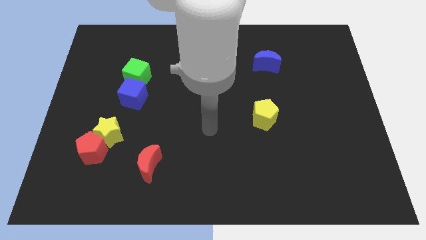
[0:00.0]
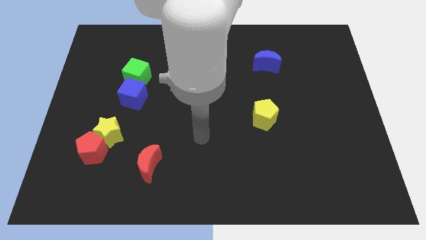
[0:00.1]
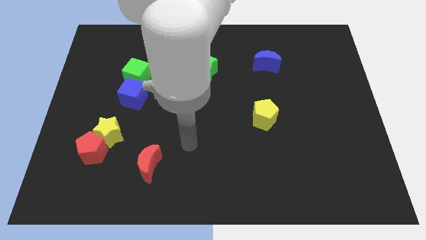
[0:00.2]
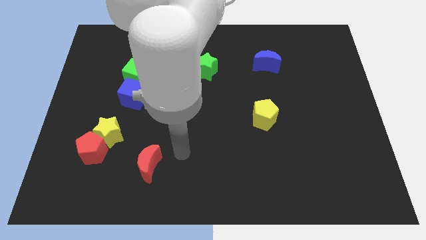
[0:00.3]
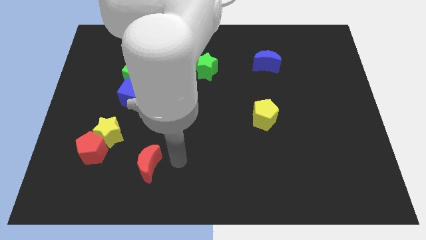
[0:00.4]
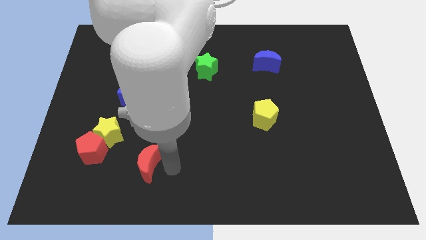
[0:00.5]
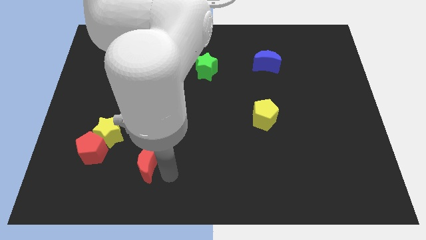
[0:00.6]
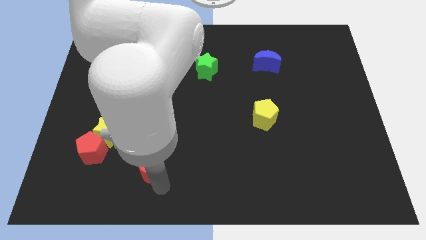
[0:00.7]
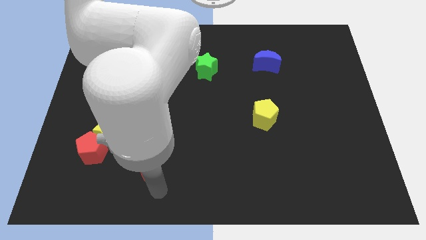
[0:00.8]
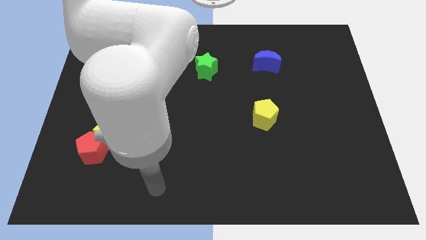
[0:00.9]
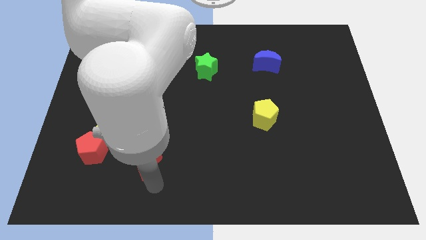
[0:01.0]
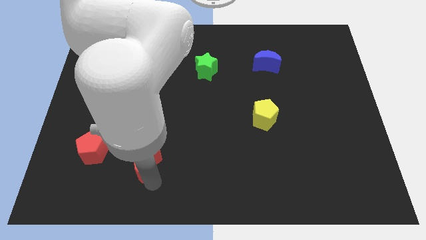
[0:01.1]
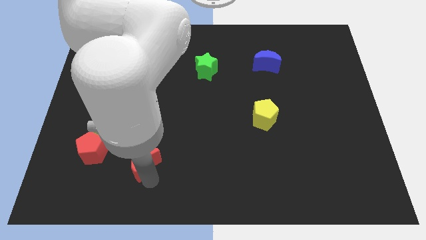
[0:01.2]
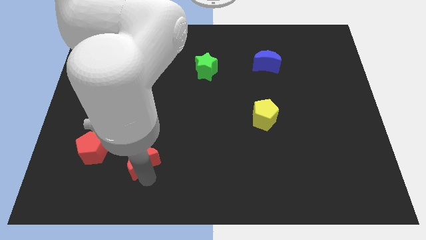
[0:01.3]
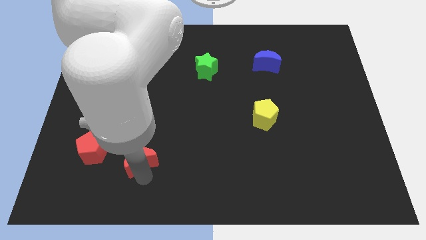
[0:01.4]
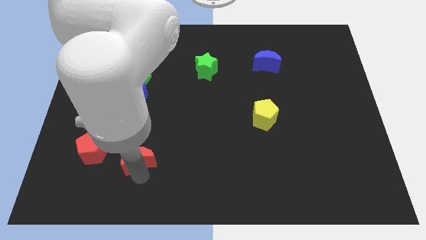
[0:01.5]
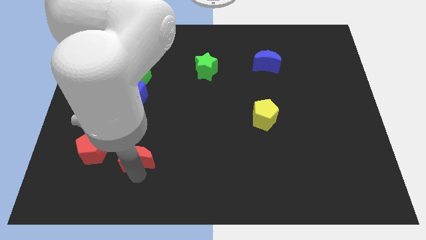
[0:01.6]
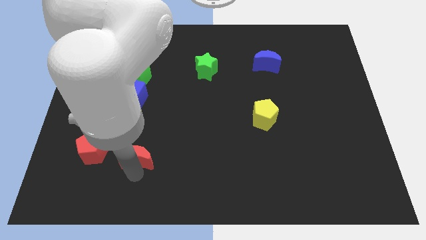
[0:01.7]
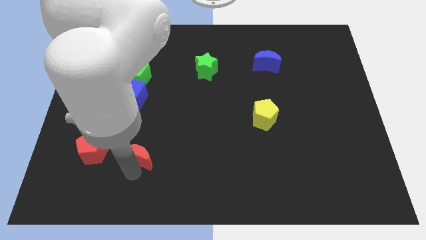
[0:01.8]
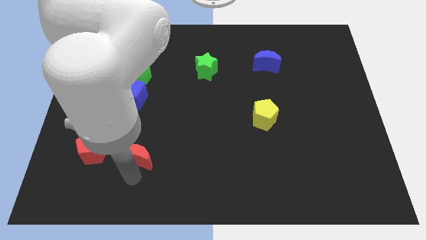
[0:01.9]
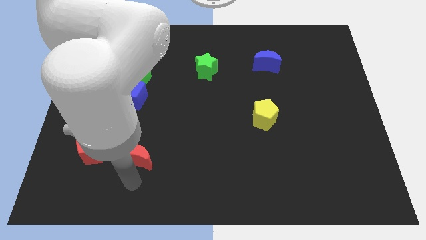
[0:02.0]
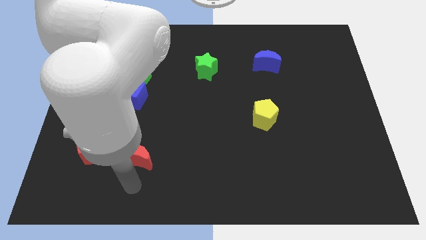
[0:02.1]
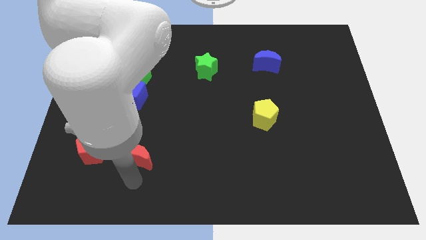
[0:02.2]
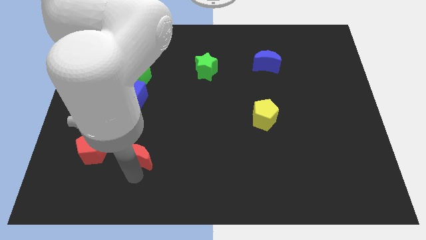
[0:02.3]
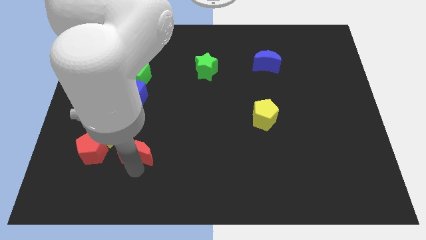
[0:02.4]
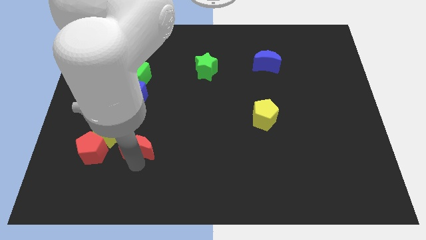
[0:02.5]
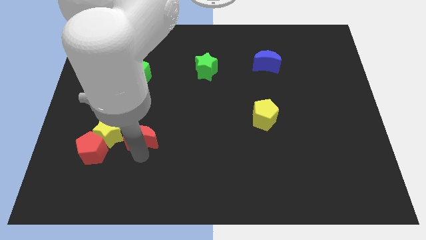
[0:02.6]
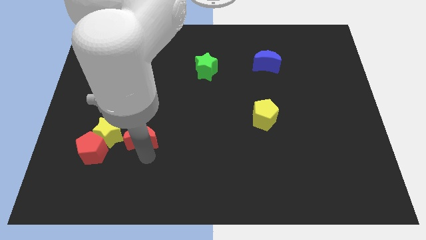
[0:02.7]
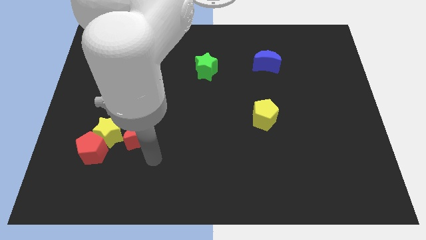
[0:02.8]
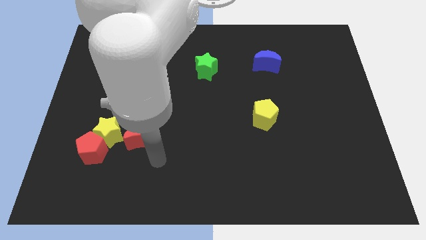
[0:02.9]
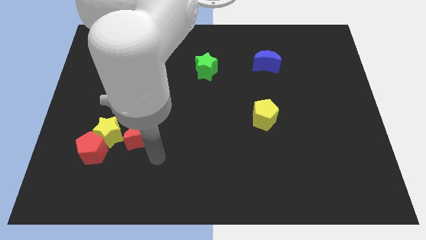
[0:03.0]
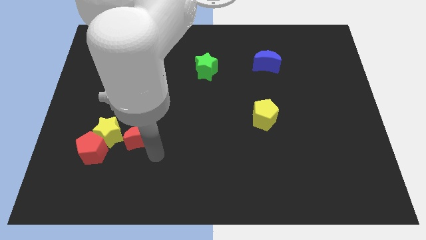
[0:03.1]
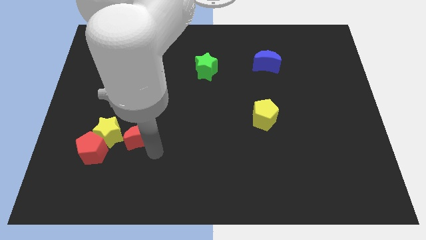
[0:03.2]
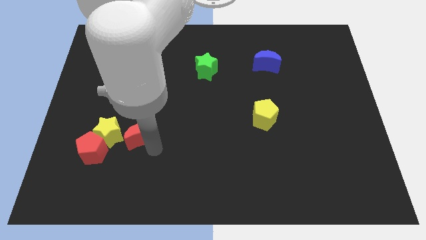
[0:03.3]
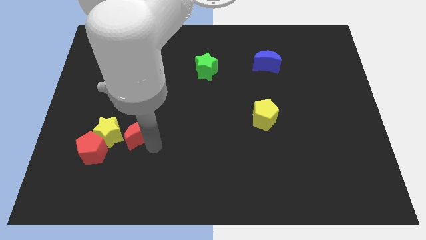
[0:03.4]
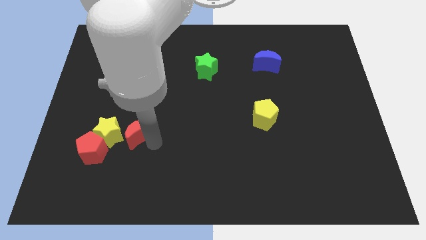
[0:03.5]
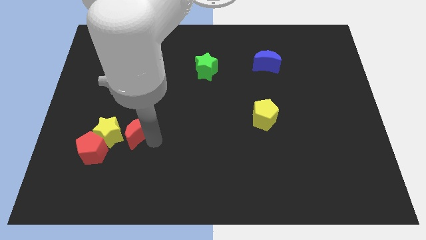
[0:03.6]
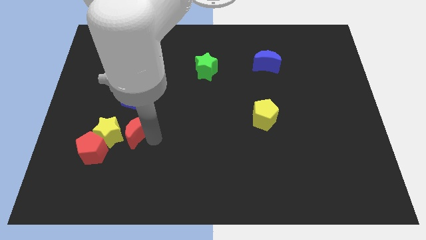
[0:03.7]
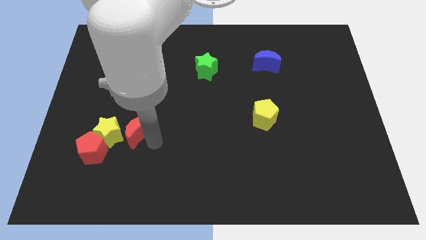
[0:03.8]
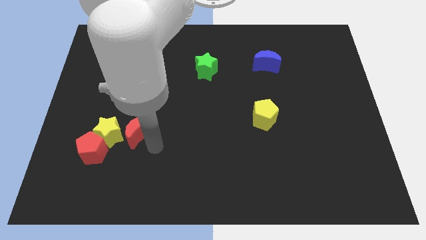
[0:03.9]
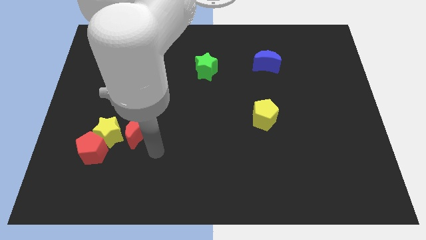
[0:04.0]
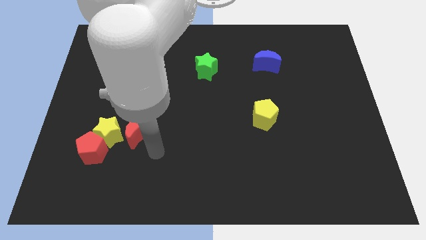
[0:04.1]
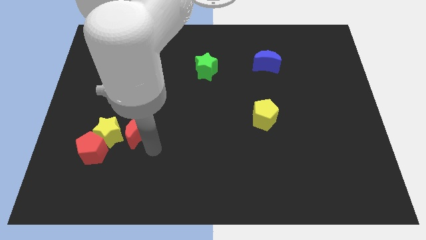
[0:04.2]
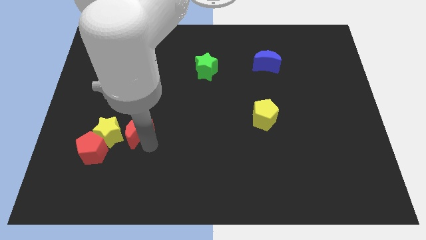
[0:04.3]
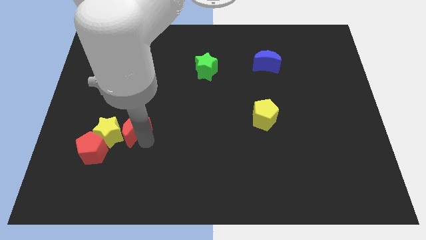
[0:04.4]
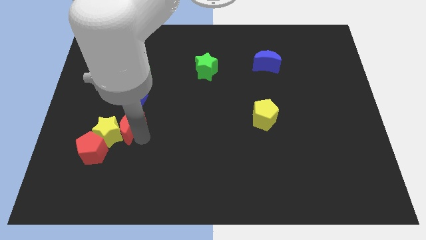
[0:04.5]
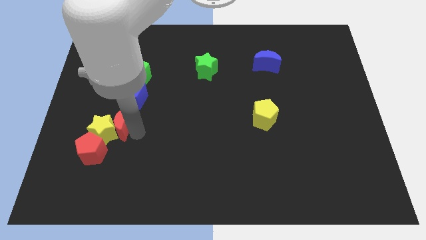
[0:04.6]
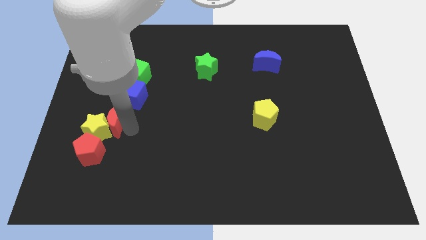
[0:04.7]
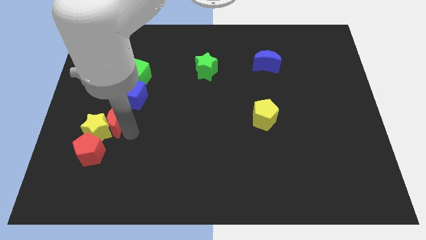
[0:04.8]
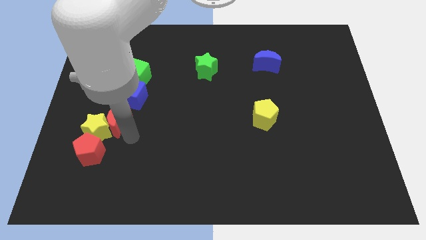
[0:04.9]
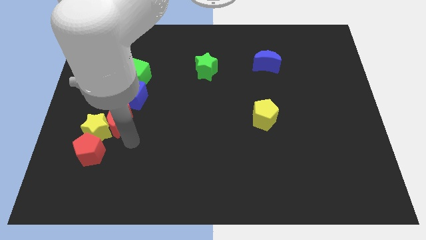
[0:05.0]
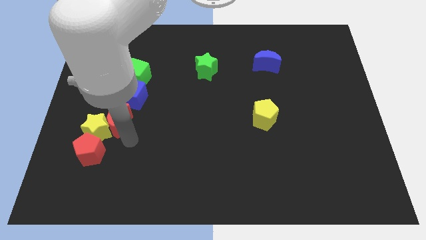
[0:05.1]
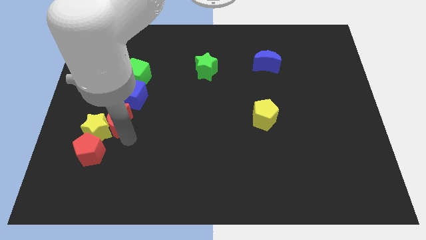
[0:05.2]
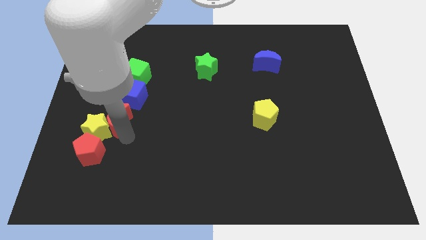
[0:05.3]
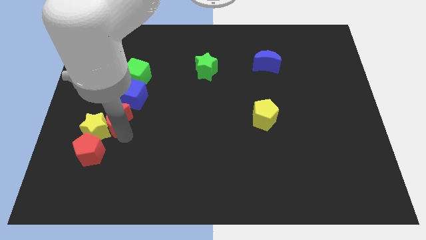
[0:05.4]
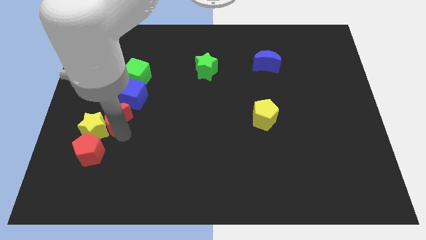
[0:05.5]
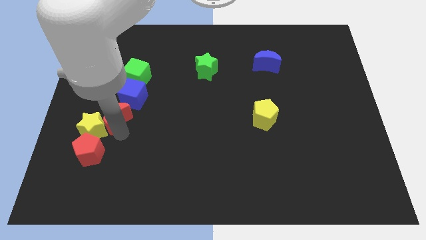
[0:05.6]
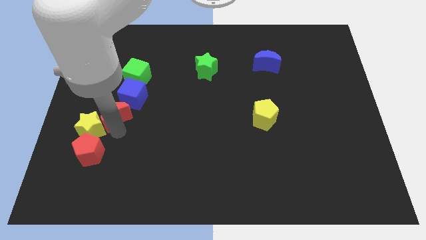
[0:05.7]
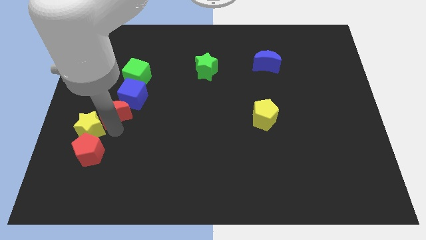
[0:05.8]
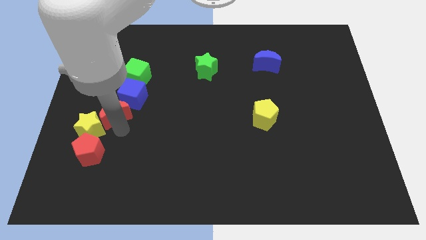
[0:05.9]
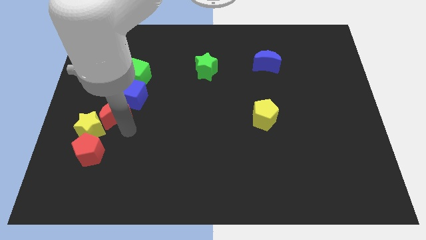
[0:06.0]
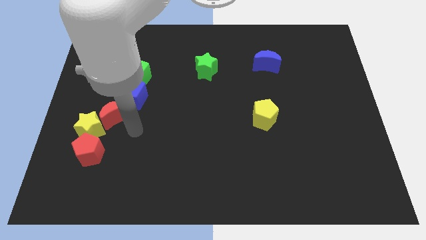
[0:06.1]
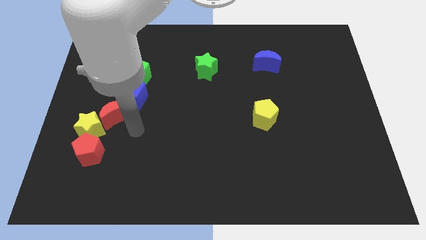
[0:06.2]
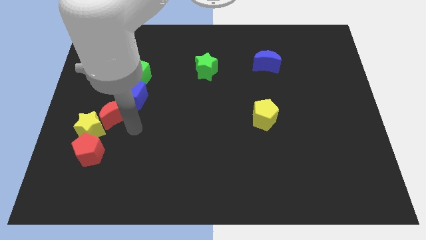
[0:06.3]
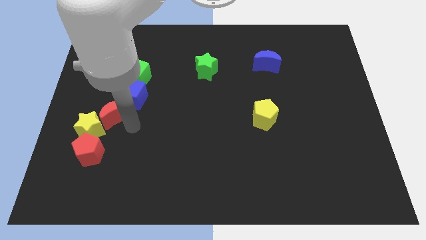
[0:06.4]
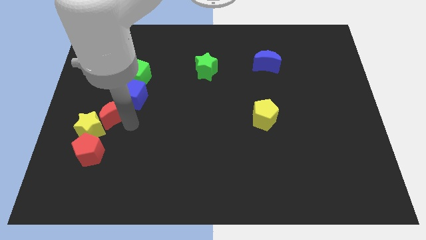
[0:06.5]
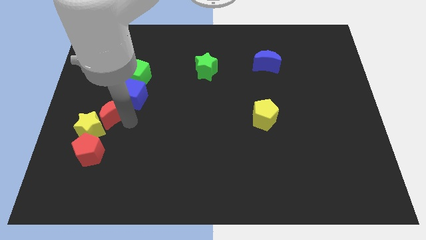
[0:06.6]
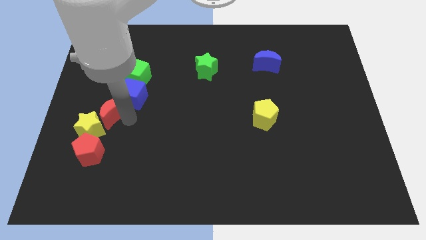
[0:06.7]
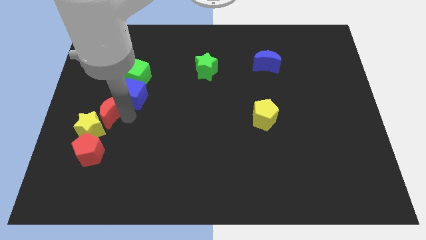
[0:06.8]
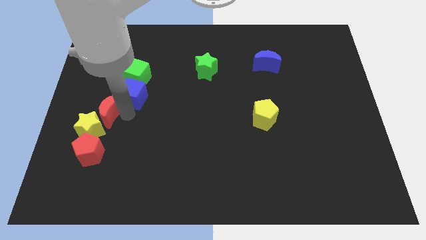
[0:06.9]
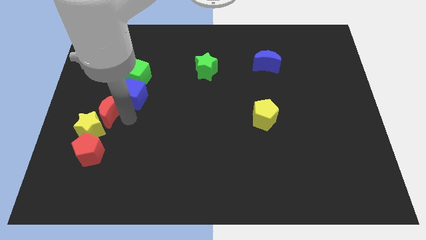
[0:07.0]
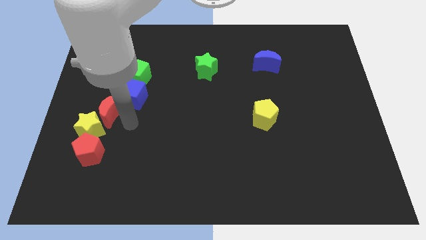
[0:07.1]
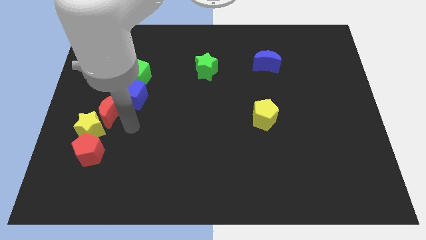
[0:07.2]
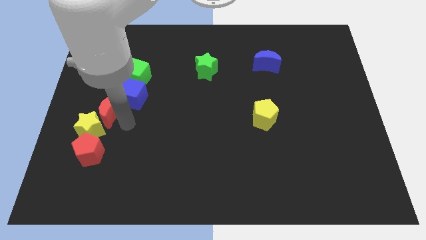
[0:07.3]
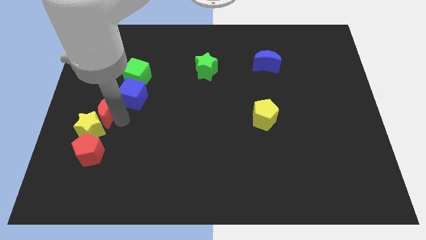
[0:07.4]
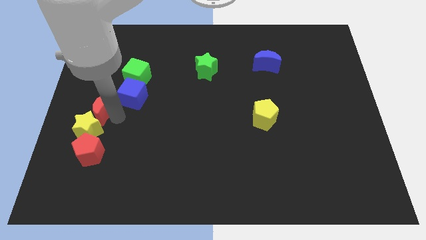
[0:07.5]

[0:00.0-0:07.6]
put the red moon to the left side
